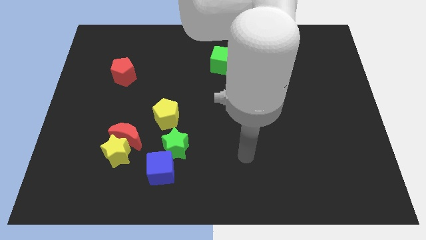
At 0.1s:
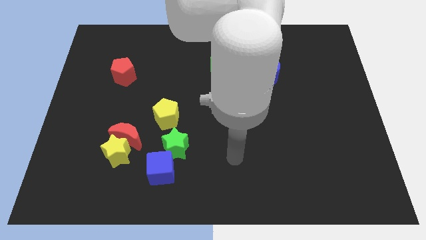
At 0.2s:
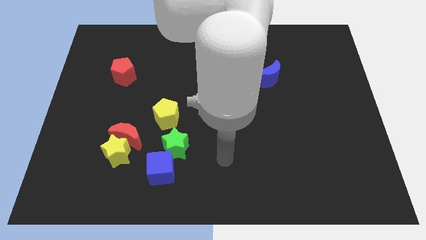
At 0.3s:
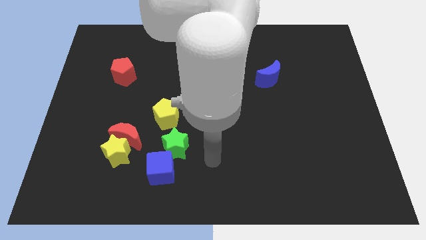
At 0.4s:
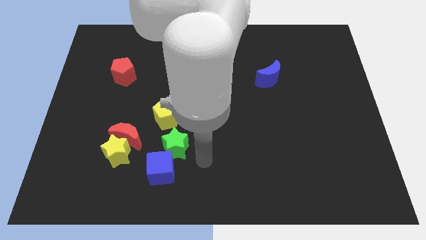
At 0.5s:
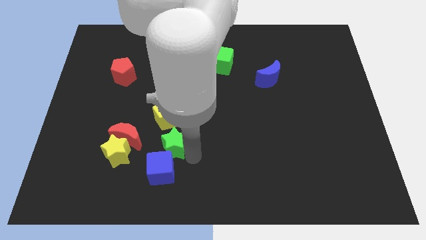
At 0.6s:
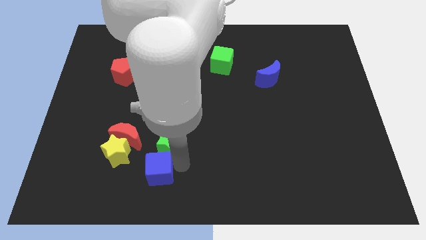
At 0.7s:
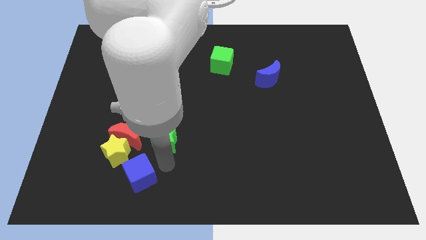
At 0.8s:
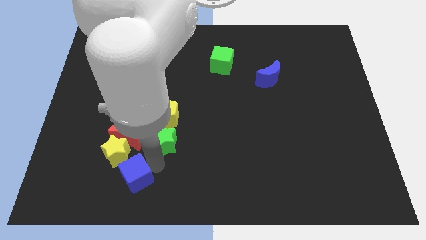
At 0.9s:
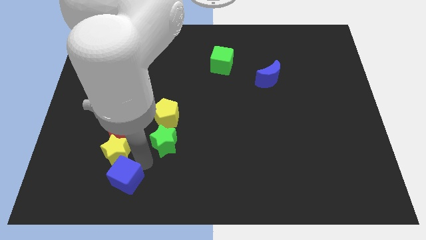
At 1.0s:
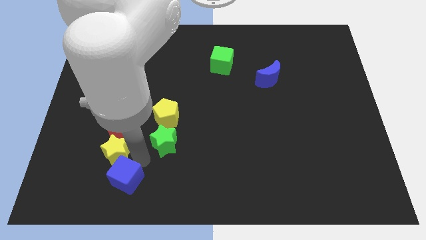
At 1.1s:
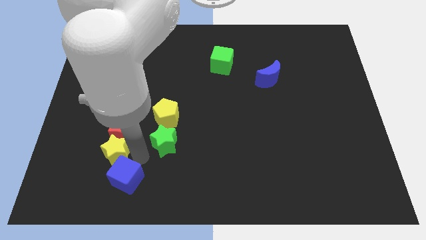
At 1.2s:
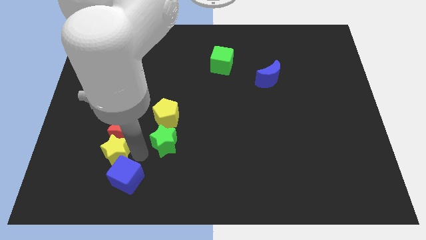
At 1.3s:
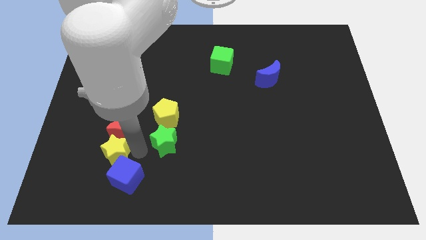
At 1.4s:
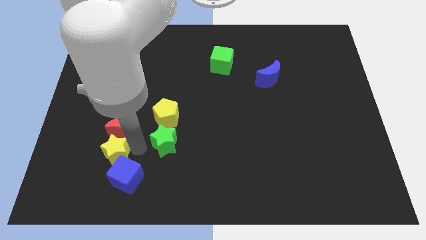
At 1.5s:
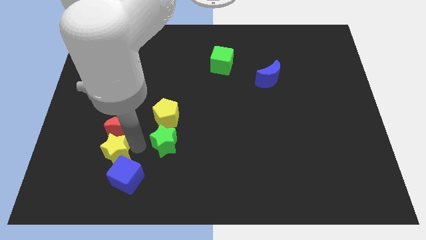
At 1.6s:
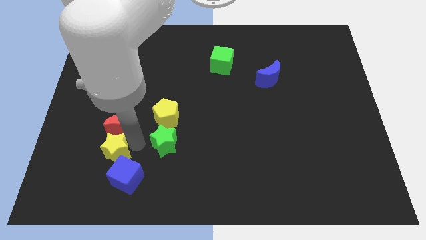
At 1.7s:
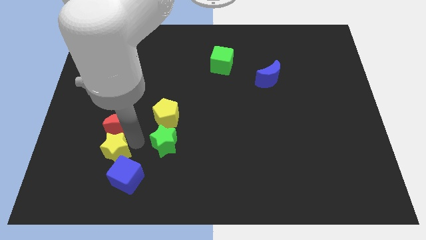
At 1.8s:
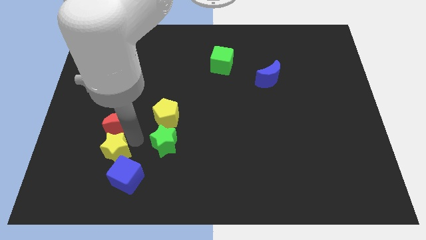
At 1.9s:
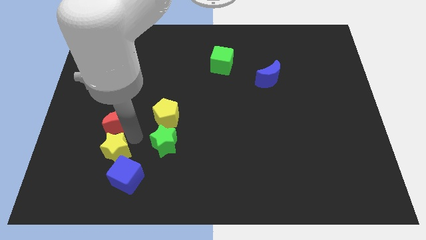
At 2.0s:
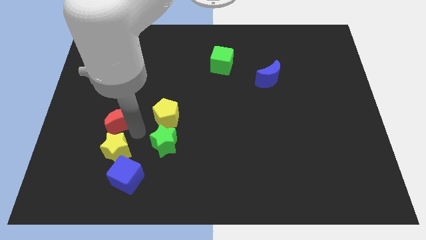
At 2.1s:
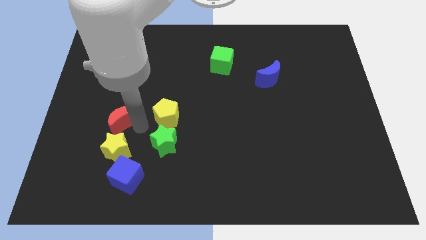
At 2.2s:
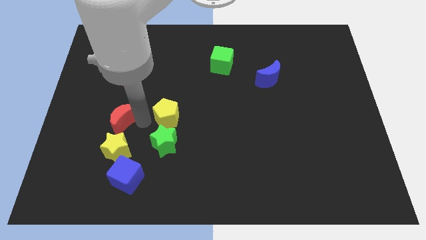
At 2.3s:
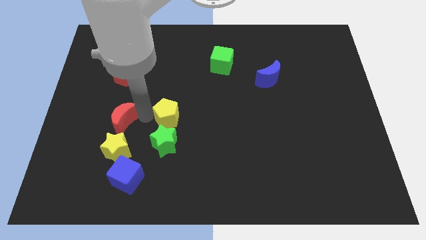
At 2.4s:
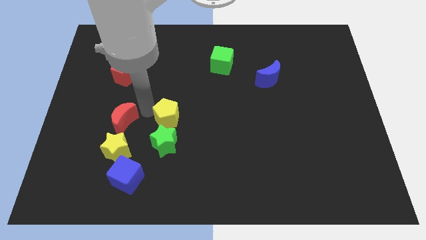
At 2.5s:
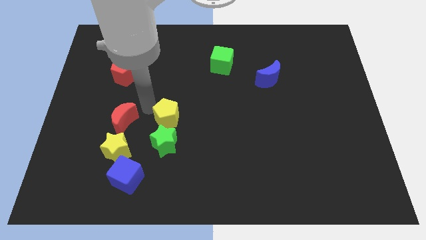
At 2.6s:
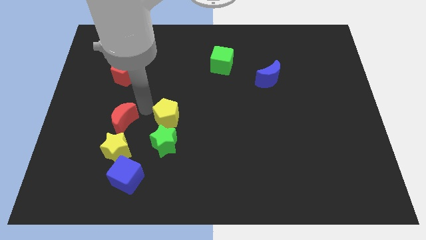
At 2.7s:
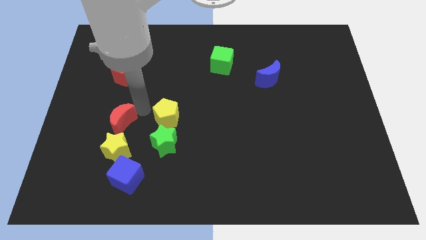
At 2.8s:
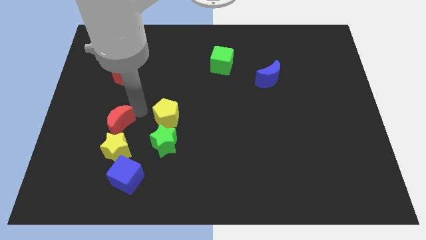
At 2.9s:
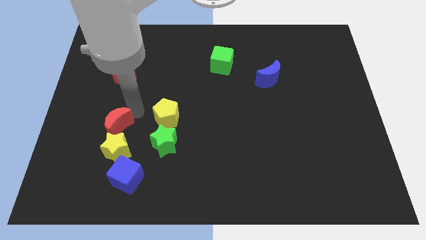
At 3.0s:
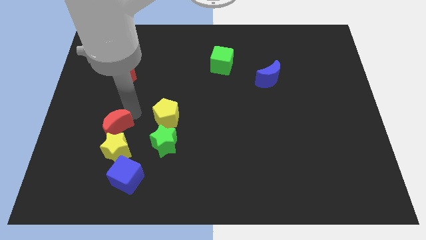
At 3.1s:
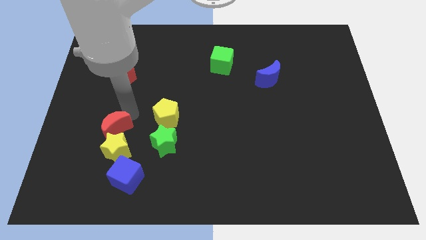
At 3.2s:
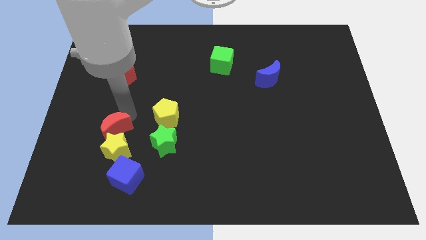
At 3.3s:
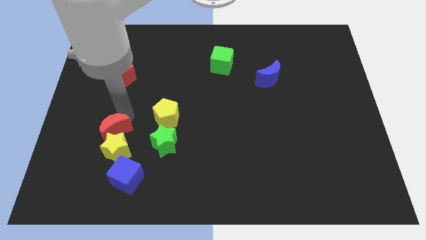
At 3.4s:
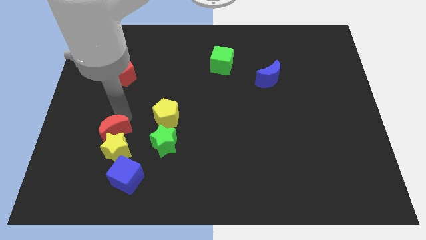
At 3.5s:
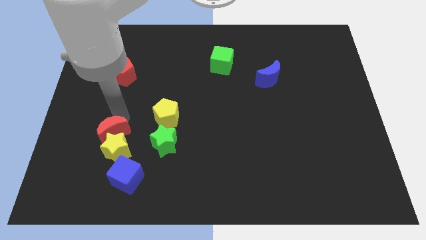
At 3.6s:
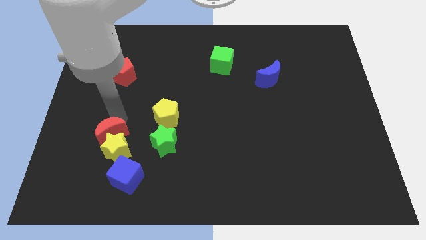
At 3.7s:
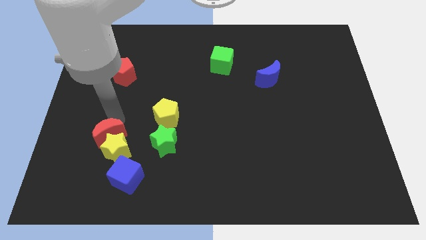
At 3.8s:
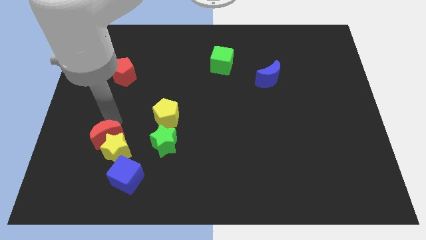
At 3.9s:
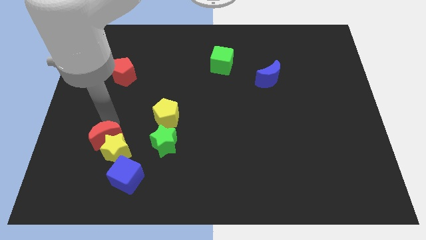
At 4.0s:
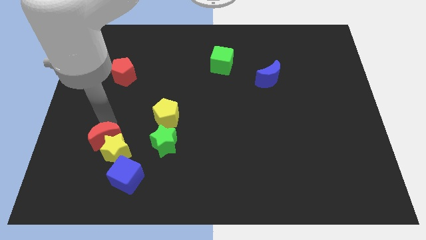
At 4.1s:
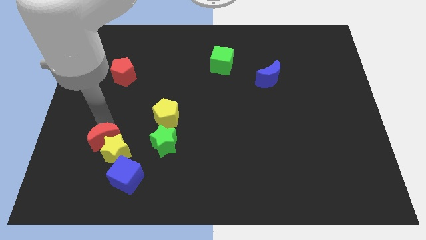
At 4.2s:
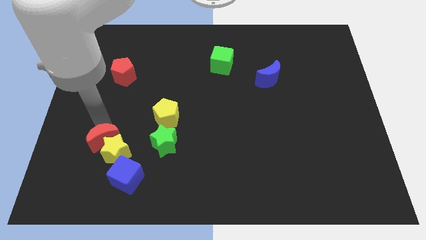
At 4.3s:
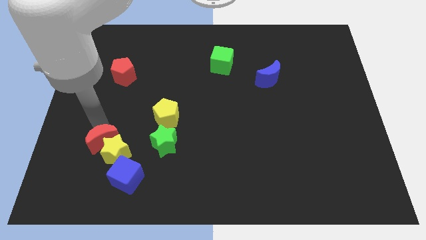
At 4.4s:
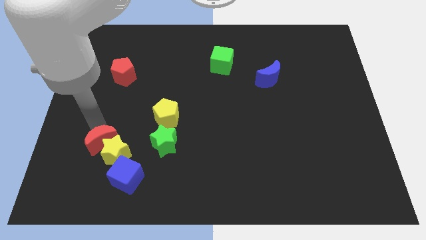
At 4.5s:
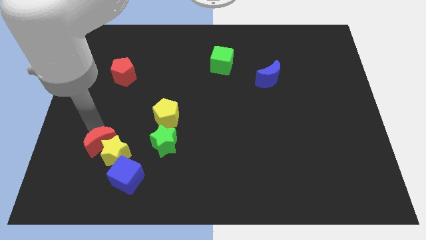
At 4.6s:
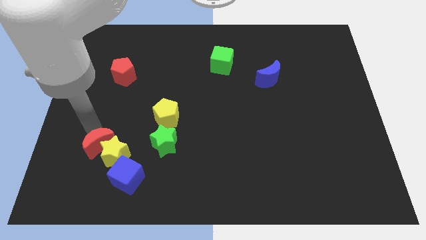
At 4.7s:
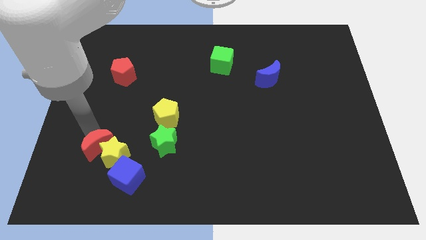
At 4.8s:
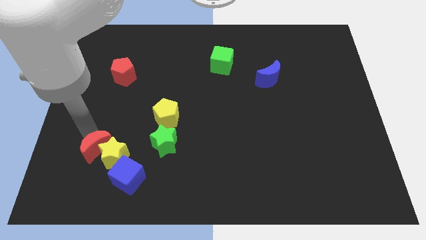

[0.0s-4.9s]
pull the red moon apart from the yellow star and yellow pentagon

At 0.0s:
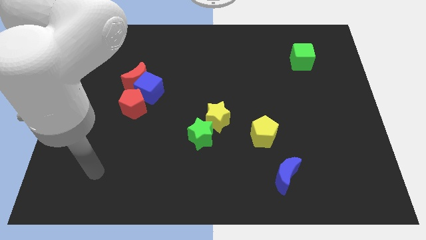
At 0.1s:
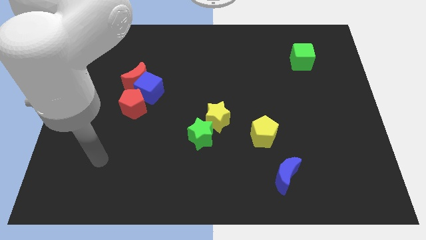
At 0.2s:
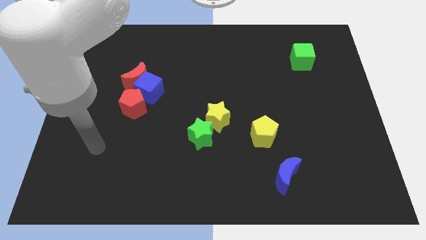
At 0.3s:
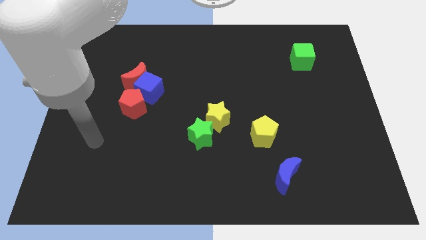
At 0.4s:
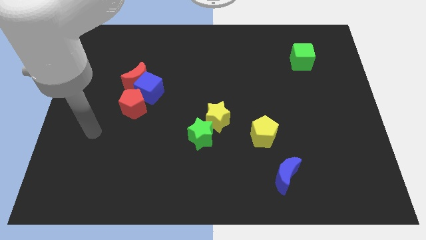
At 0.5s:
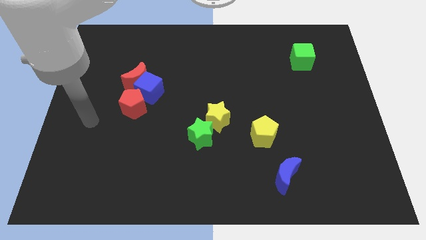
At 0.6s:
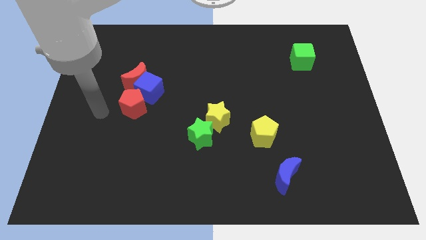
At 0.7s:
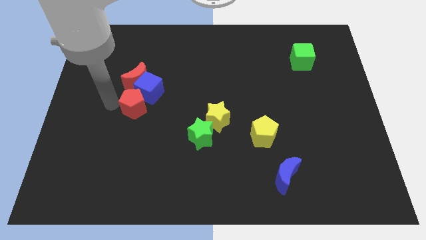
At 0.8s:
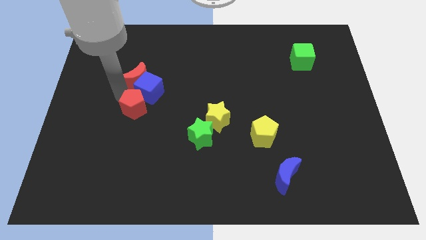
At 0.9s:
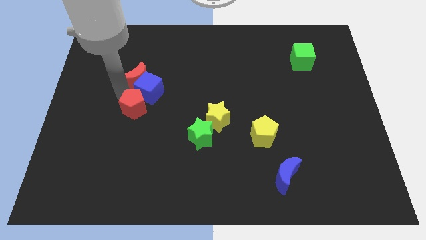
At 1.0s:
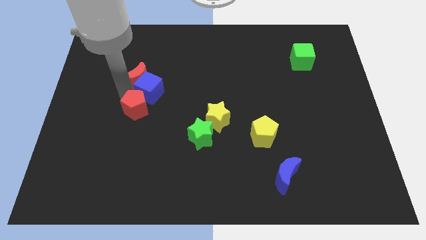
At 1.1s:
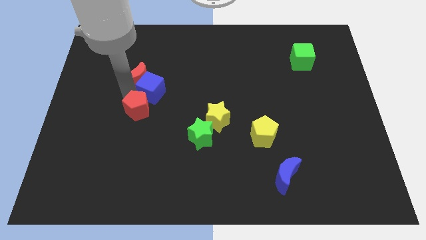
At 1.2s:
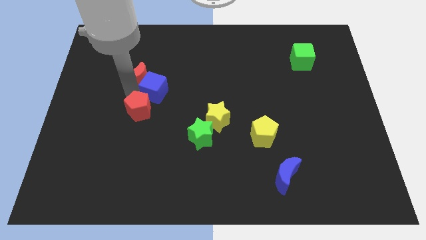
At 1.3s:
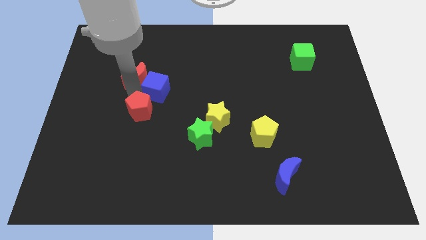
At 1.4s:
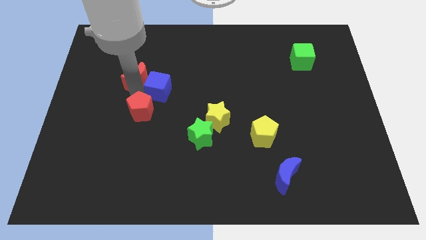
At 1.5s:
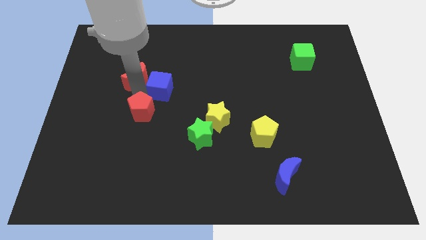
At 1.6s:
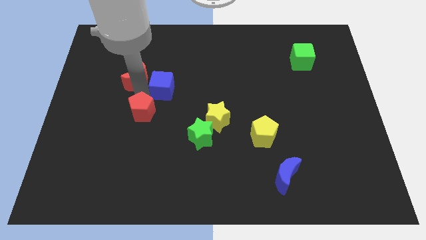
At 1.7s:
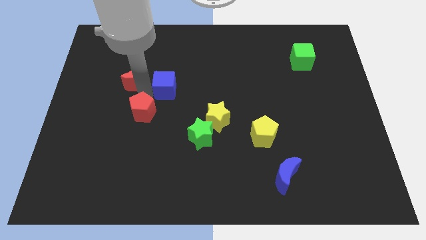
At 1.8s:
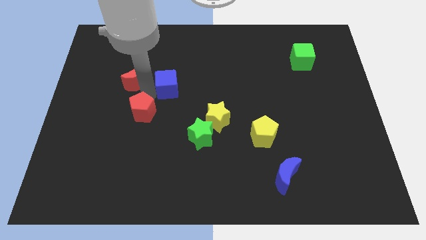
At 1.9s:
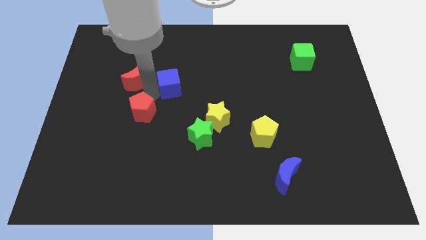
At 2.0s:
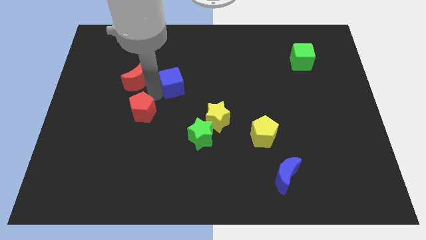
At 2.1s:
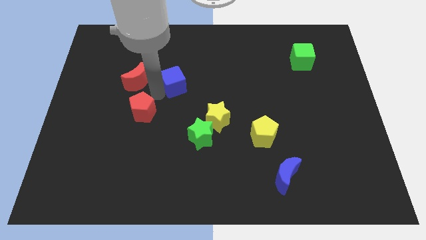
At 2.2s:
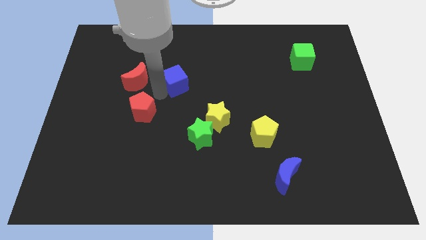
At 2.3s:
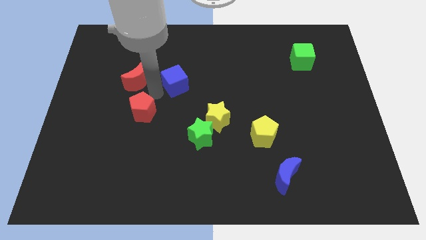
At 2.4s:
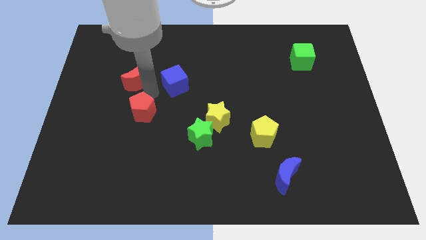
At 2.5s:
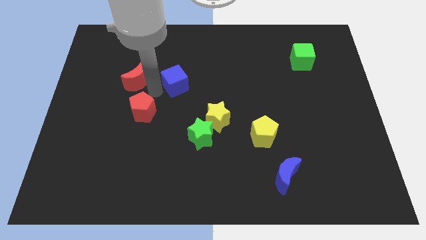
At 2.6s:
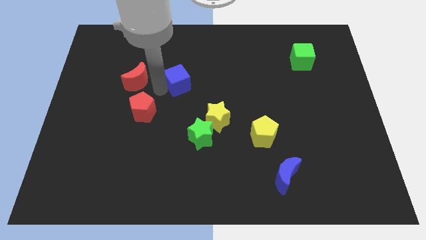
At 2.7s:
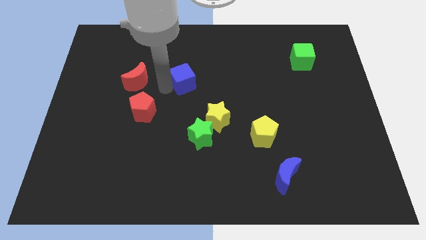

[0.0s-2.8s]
pull the blue cube apart from the red moon and red pentagon

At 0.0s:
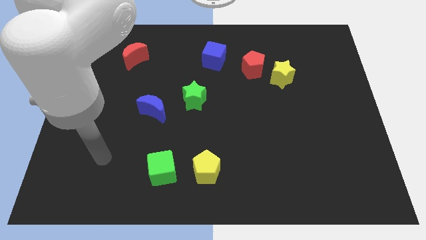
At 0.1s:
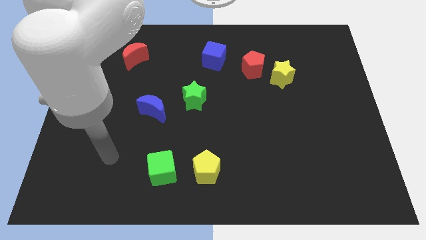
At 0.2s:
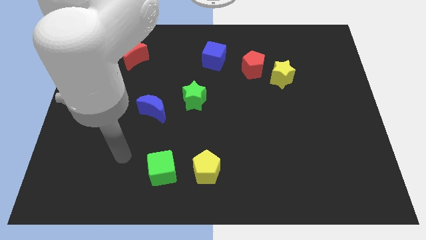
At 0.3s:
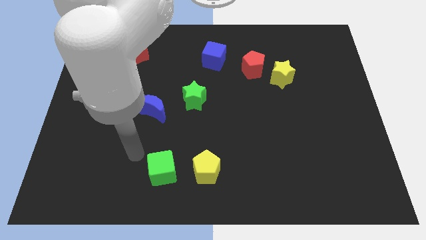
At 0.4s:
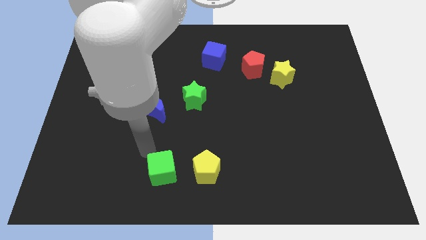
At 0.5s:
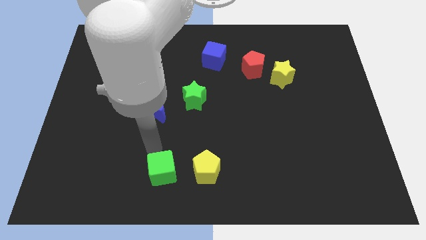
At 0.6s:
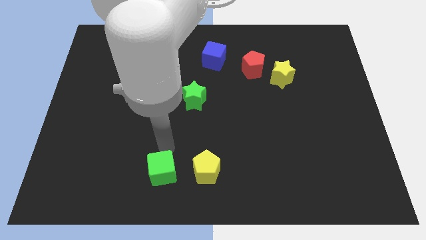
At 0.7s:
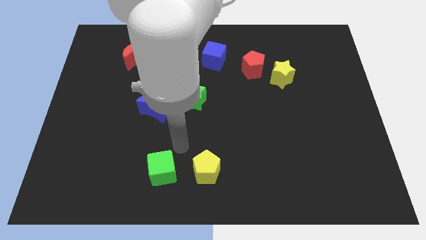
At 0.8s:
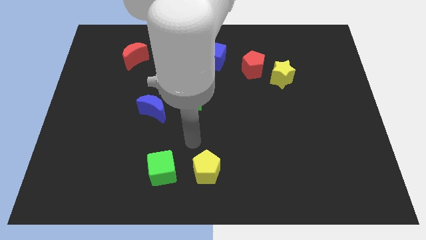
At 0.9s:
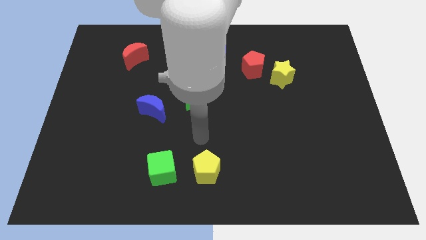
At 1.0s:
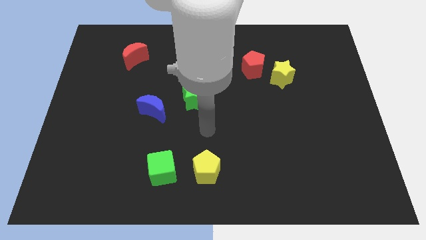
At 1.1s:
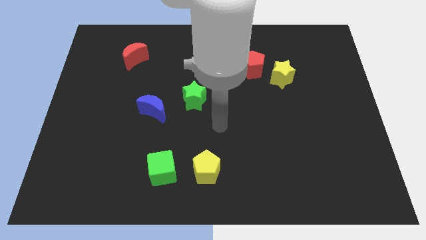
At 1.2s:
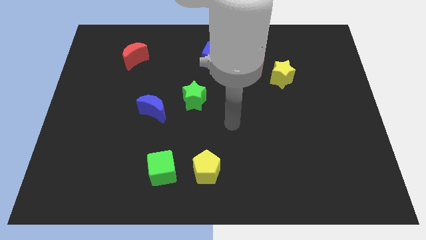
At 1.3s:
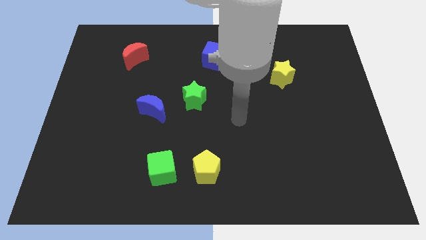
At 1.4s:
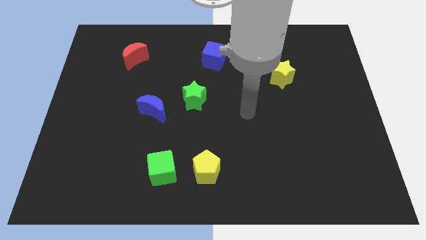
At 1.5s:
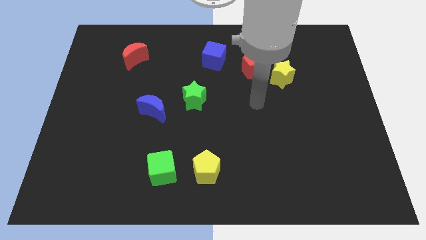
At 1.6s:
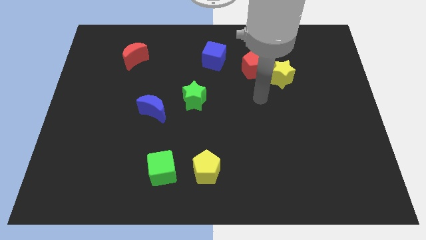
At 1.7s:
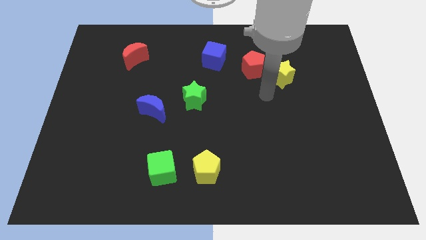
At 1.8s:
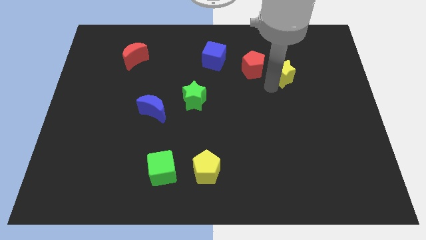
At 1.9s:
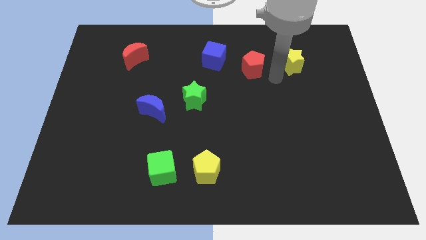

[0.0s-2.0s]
separate the red pentagon from the yellow star
